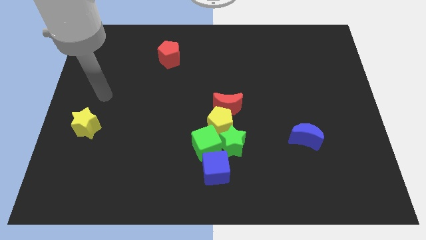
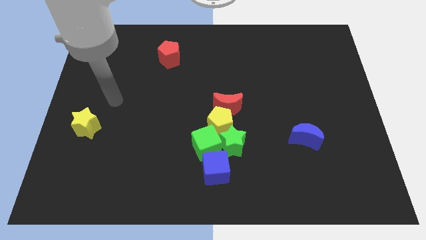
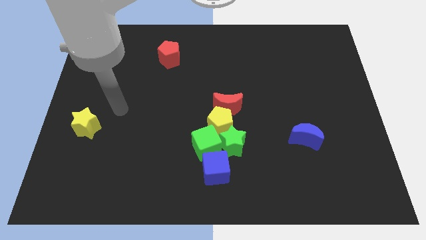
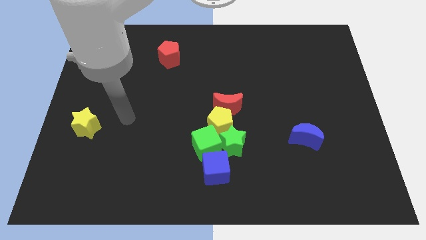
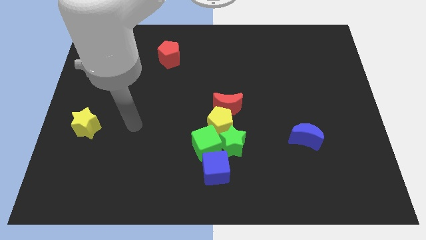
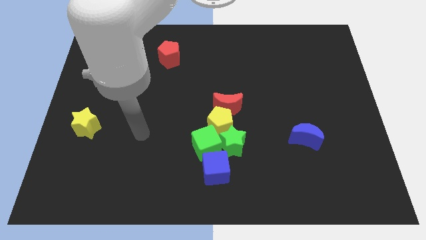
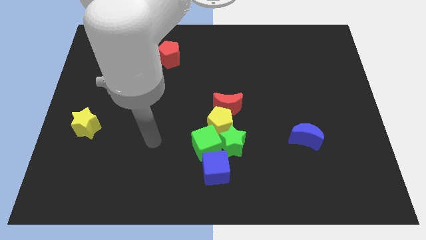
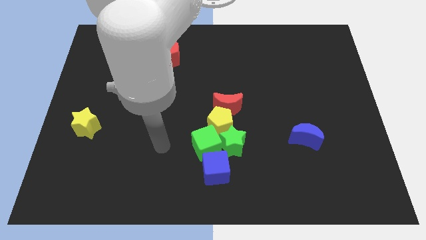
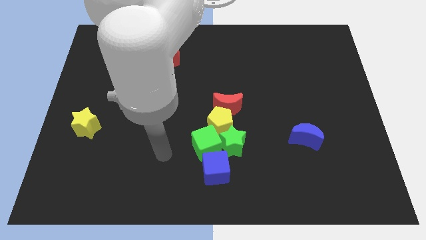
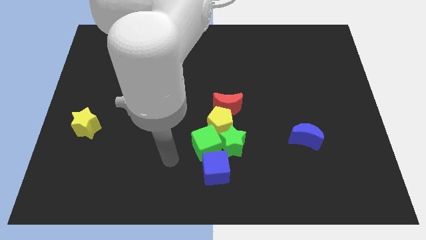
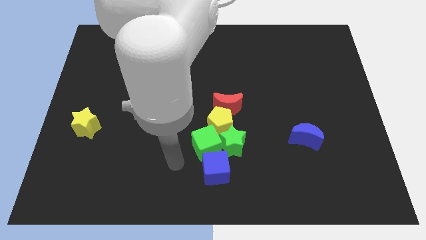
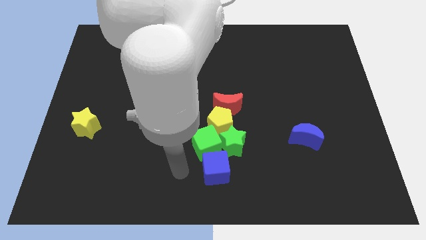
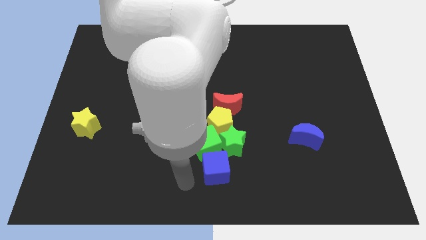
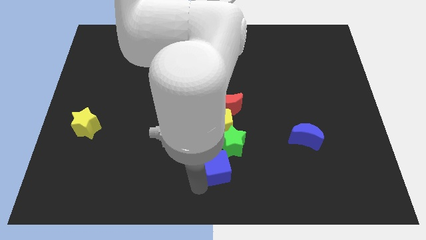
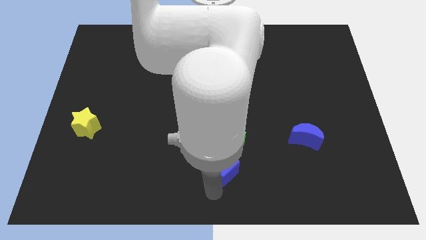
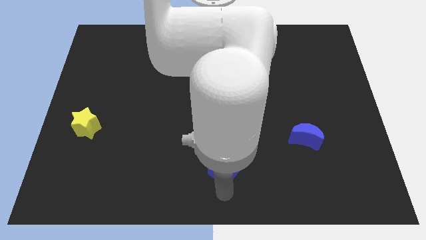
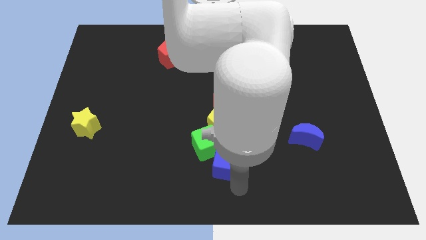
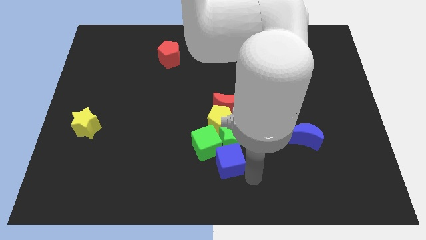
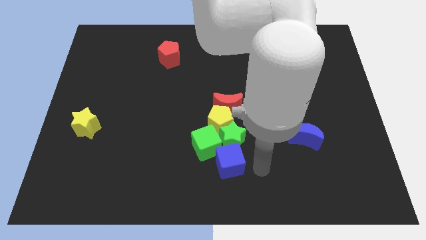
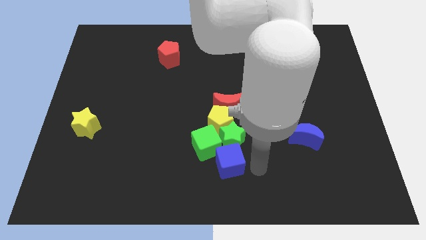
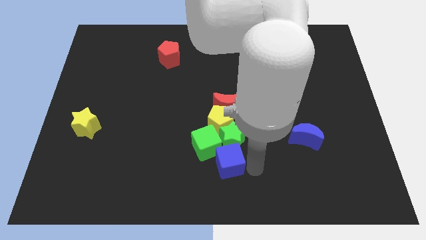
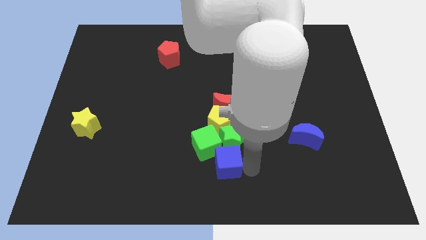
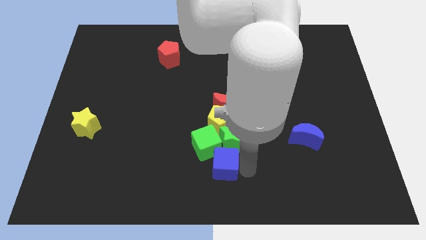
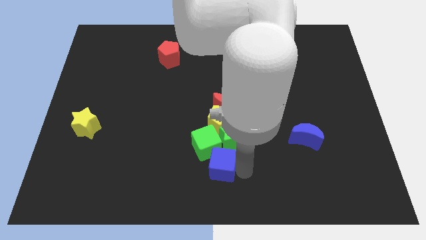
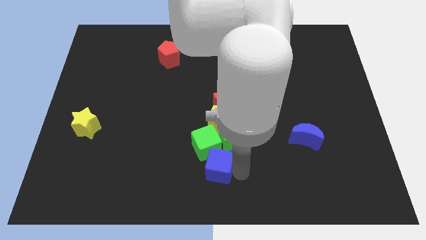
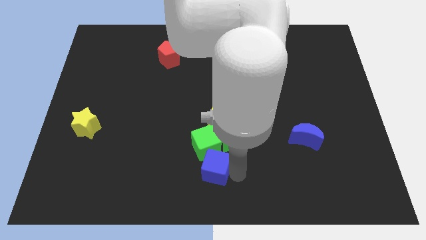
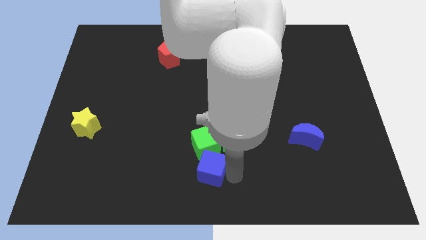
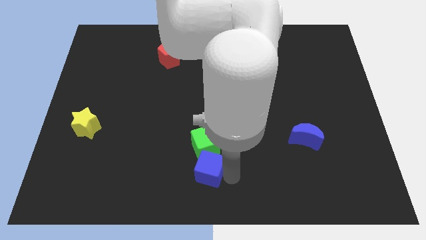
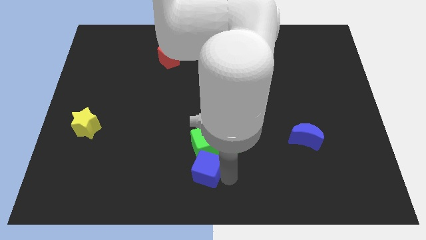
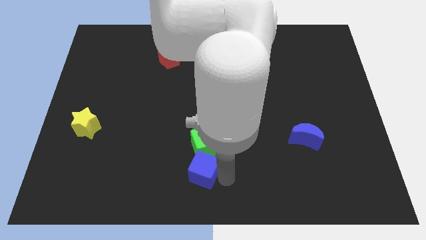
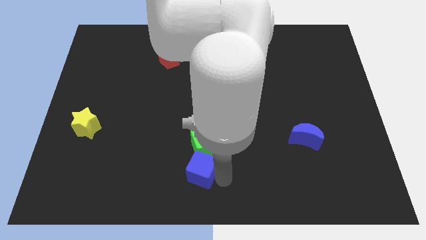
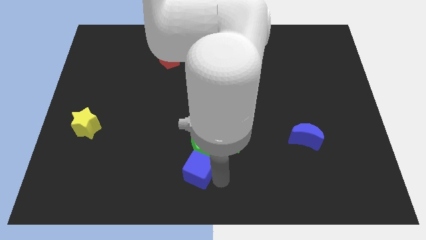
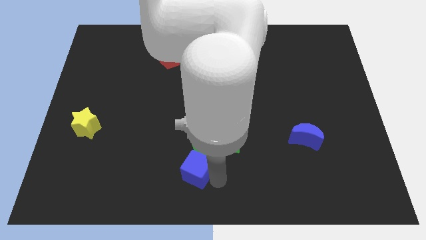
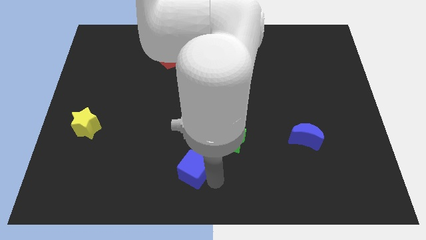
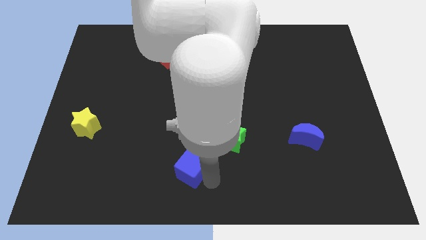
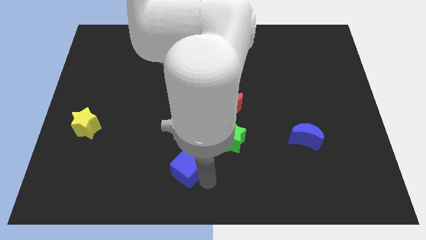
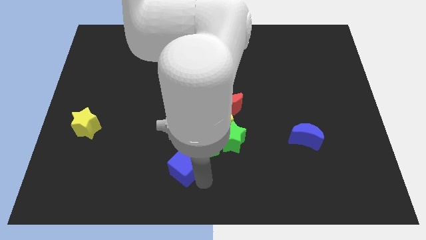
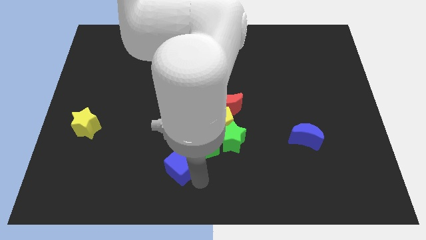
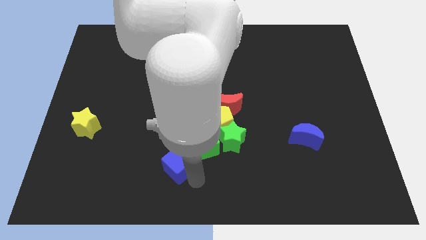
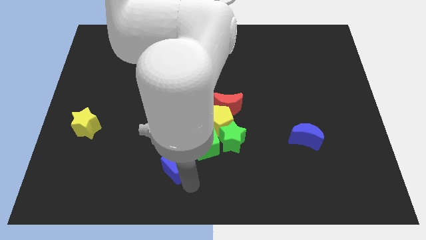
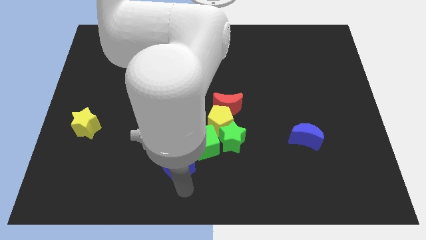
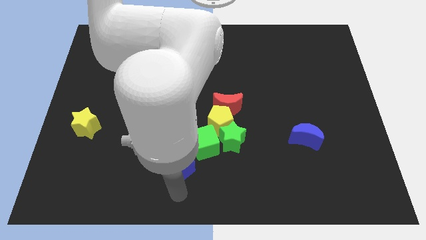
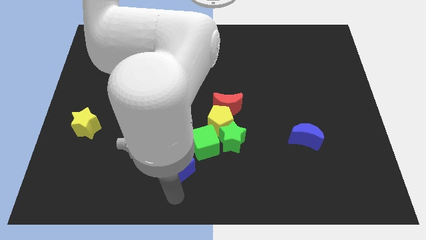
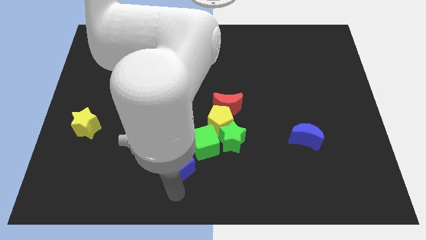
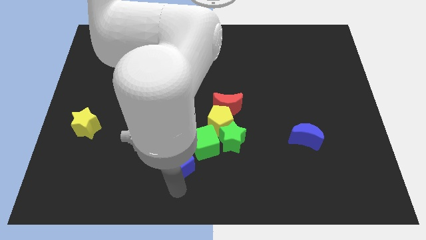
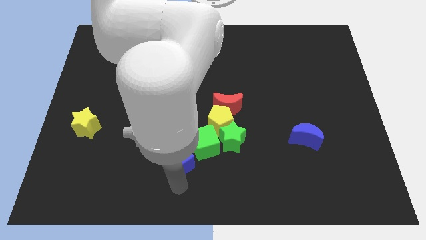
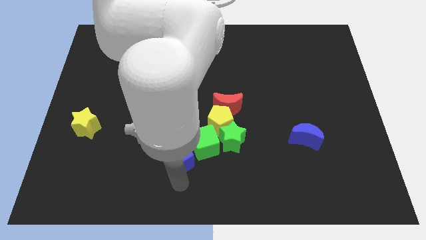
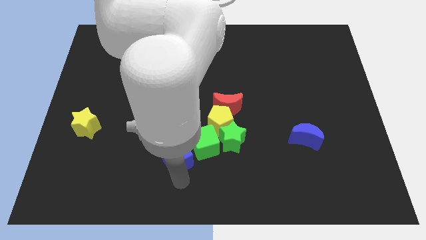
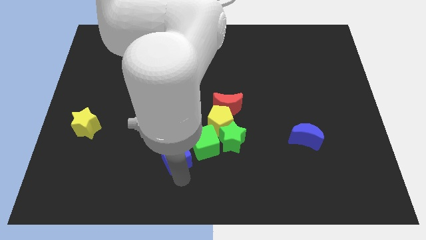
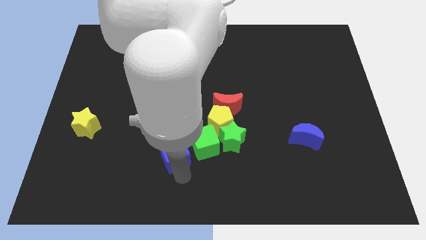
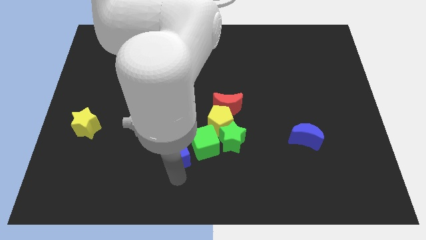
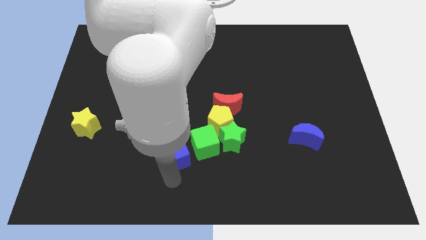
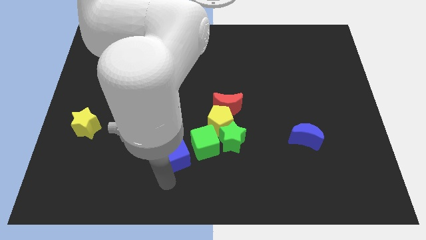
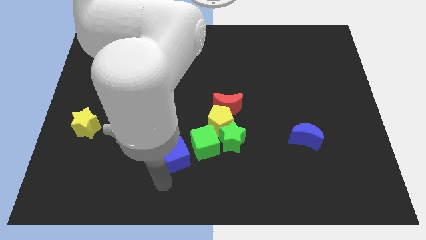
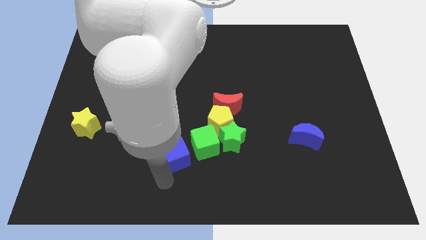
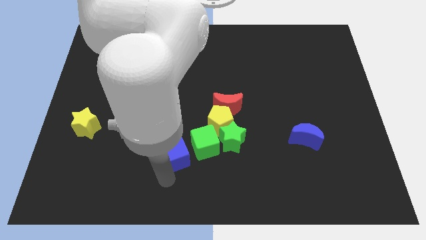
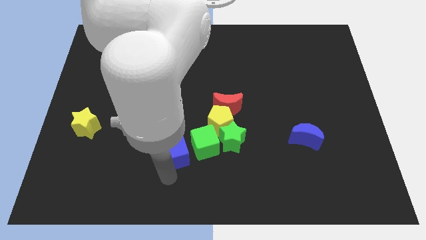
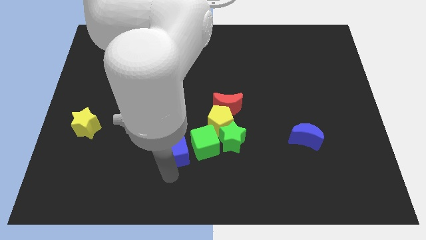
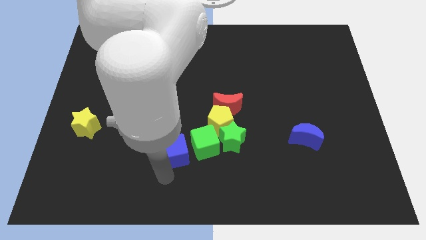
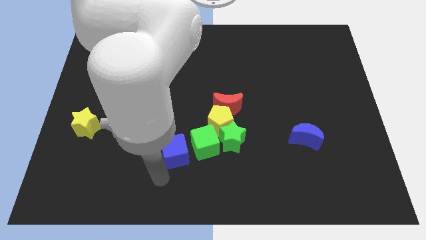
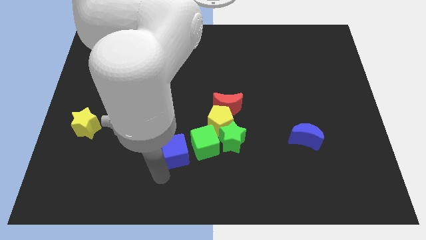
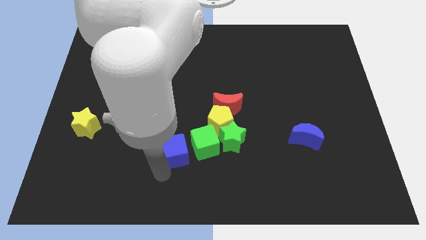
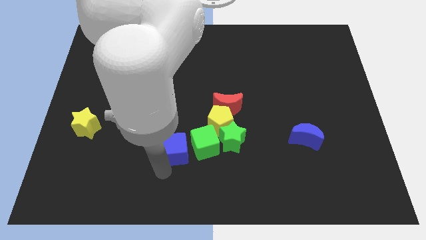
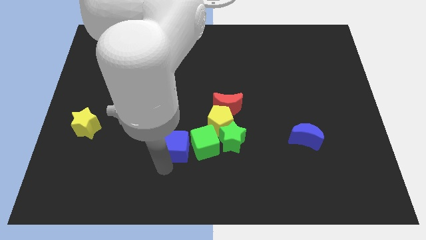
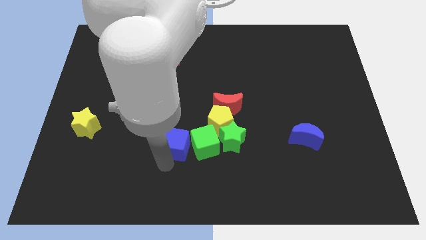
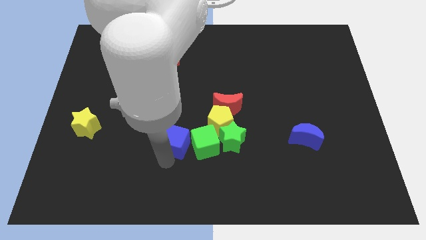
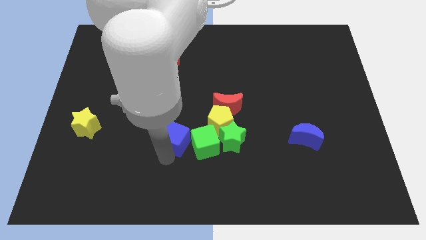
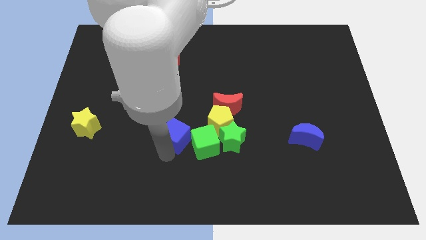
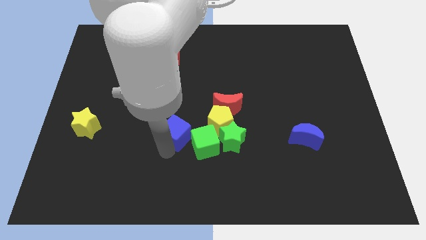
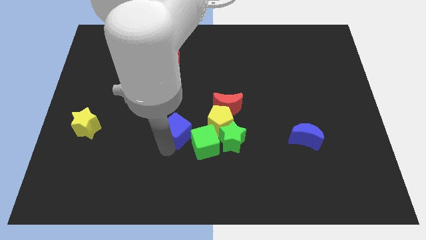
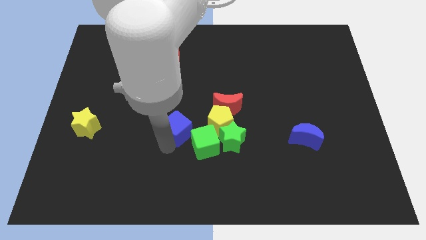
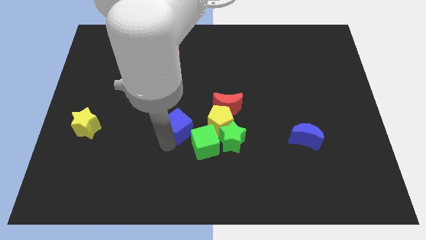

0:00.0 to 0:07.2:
slightly move the blue cube up

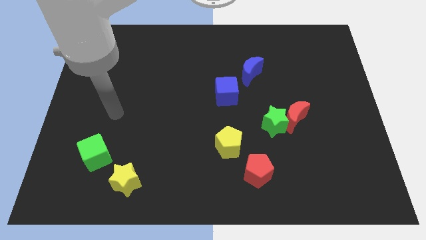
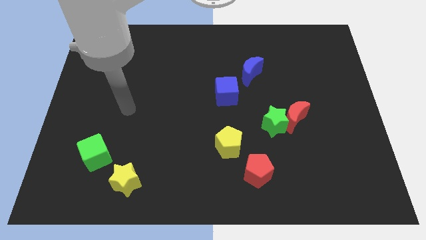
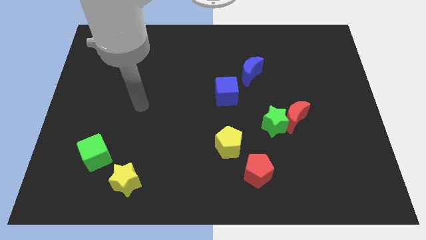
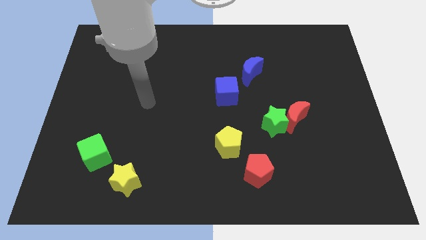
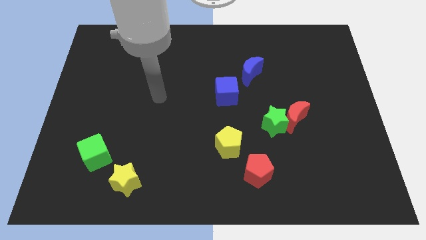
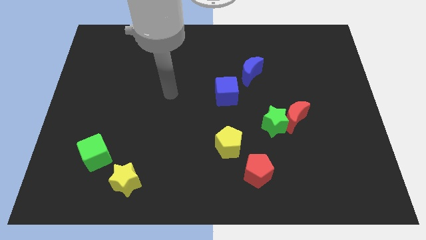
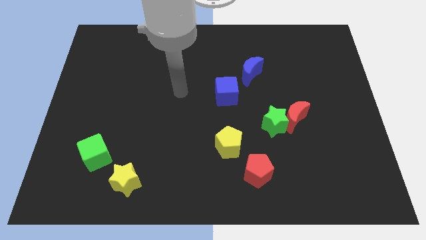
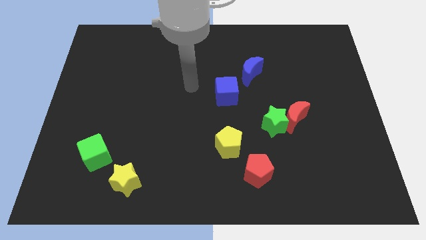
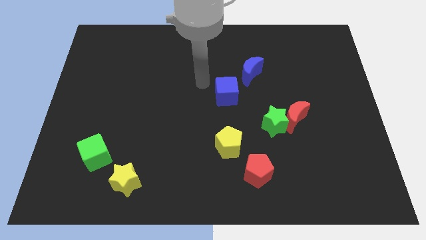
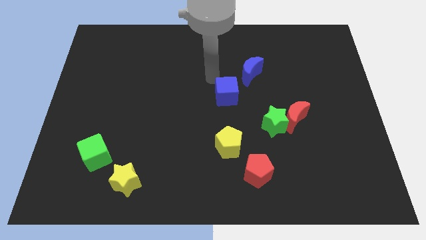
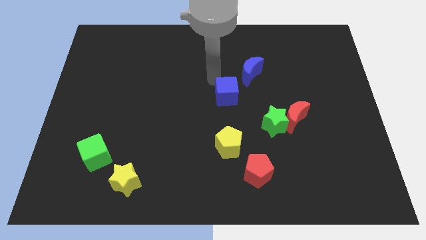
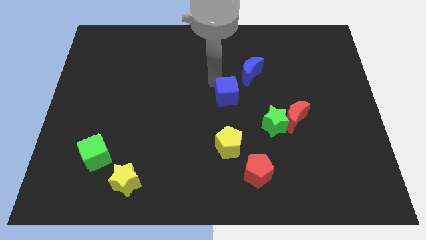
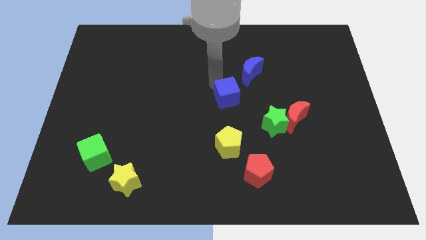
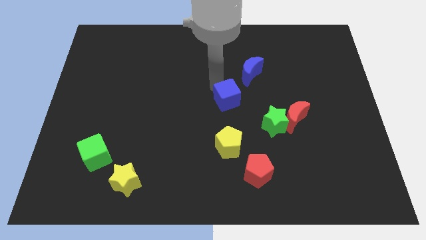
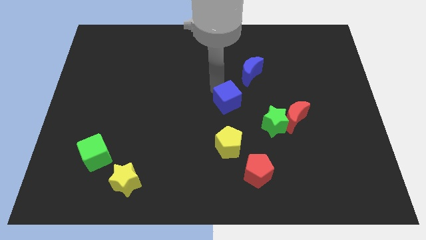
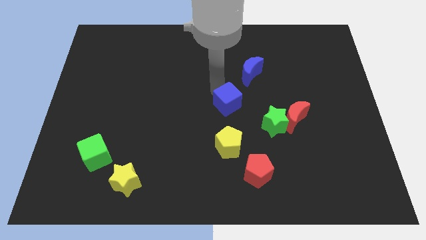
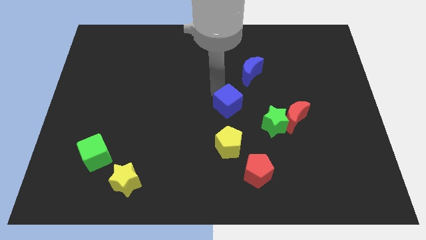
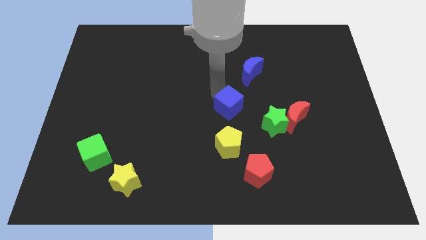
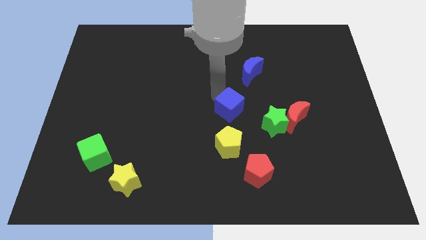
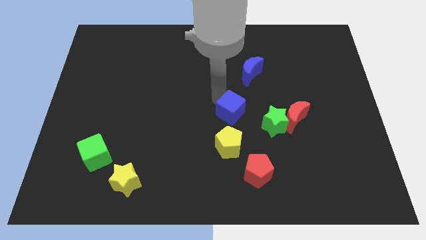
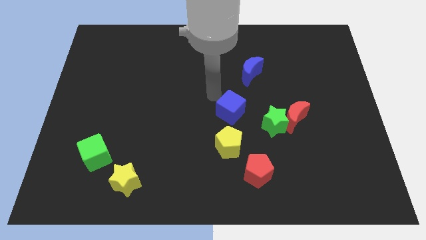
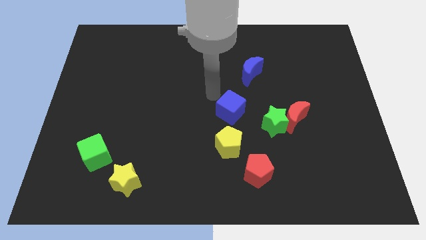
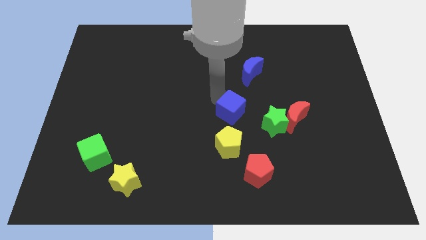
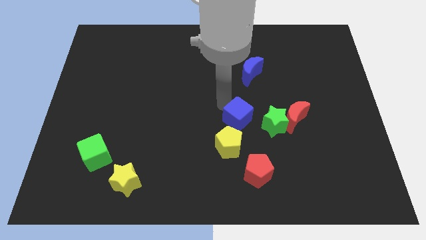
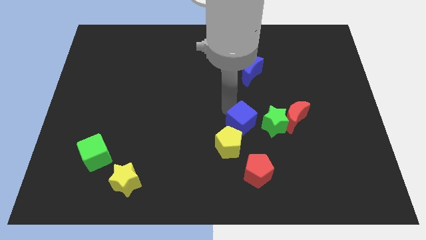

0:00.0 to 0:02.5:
slightly push the blue cube downwards and right diagonally
